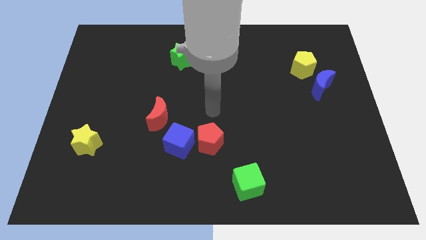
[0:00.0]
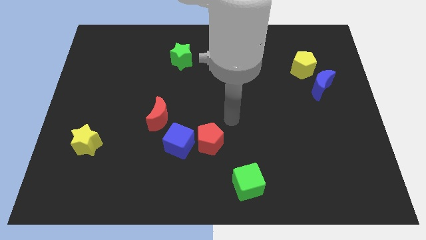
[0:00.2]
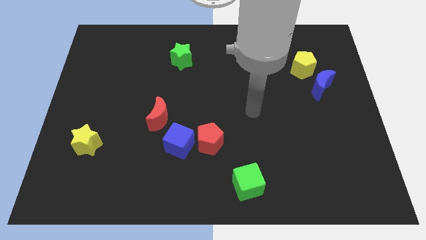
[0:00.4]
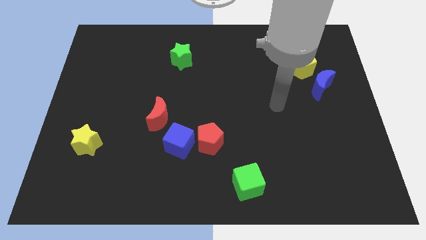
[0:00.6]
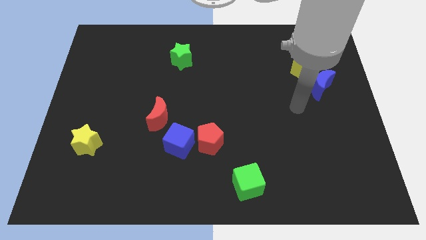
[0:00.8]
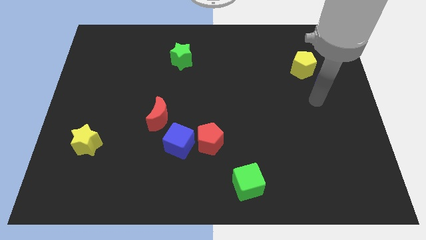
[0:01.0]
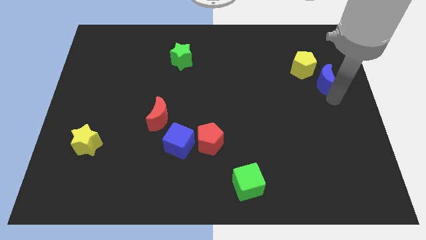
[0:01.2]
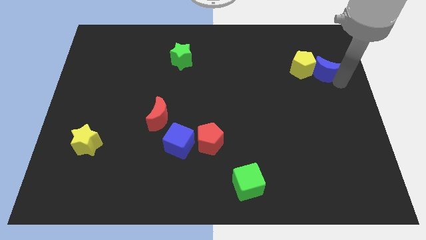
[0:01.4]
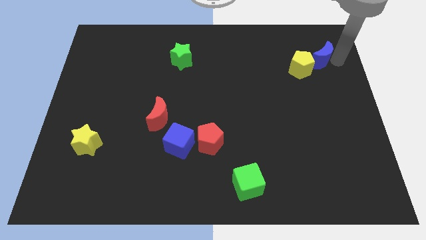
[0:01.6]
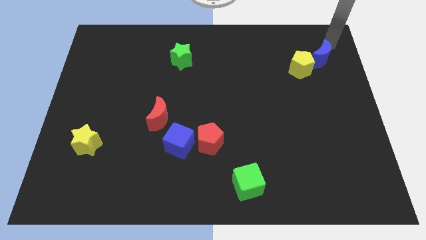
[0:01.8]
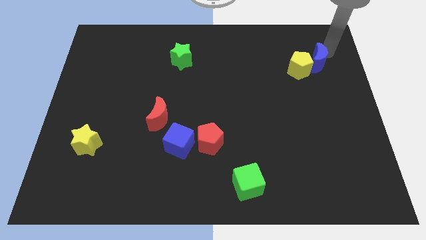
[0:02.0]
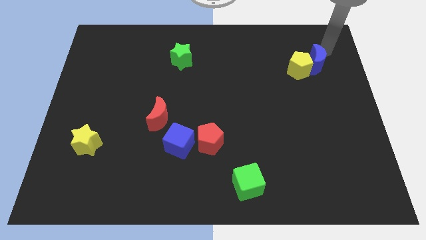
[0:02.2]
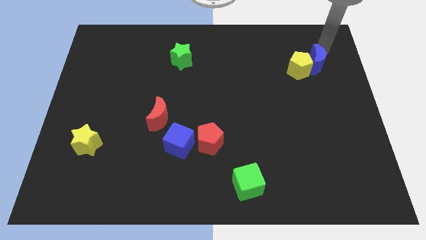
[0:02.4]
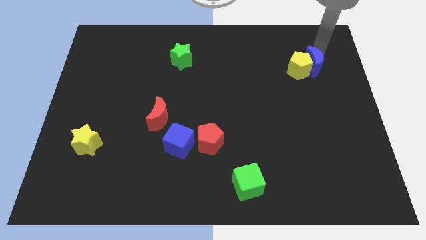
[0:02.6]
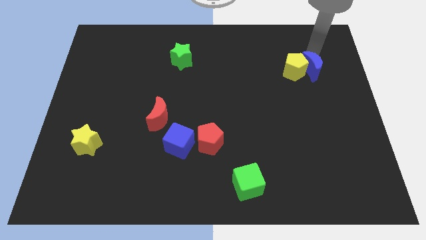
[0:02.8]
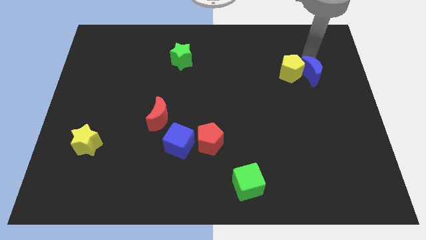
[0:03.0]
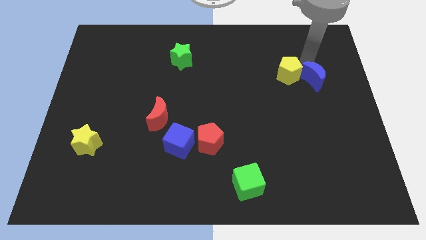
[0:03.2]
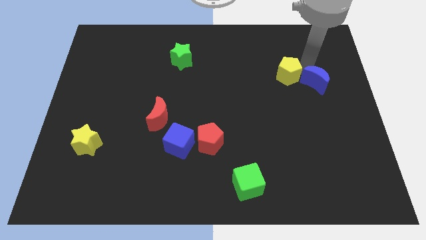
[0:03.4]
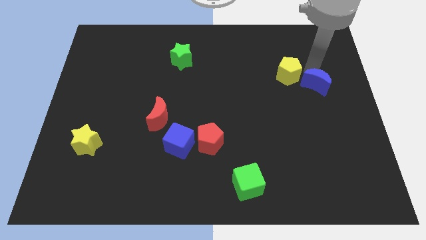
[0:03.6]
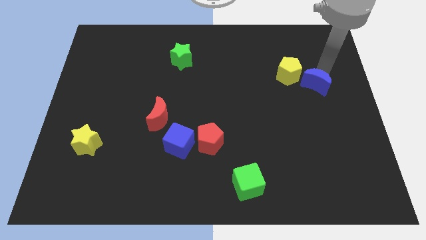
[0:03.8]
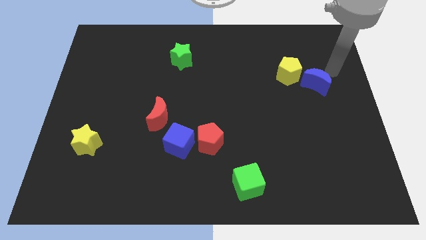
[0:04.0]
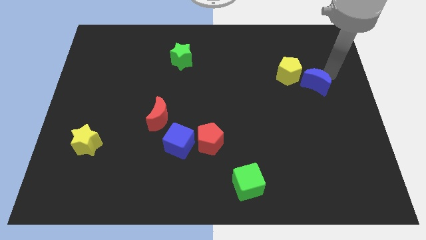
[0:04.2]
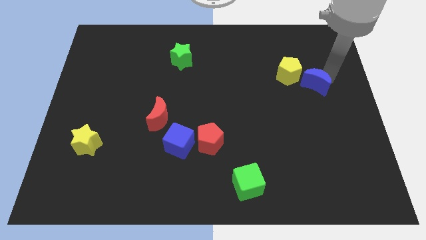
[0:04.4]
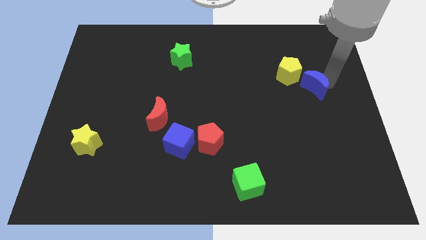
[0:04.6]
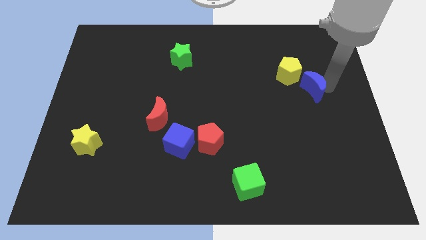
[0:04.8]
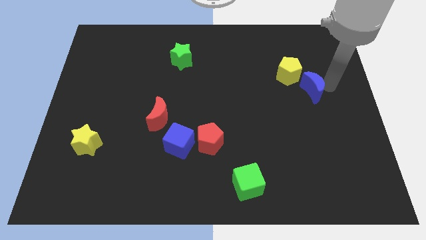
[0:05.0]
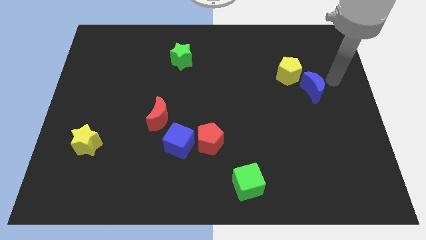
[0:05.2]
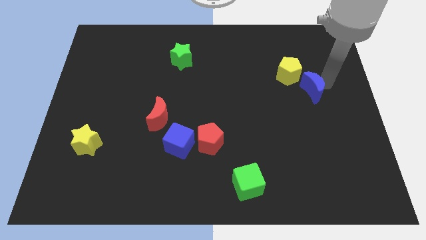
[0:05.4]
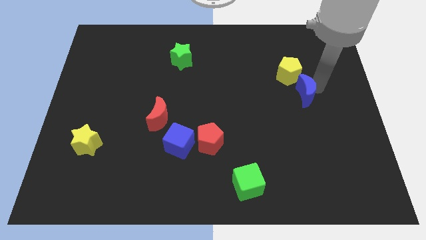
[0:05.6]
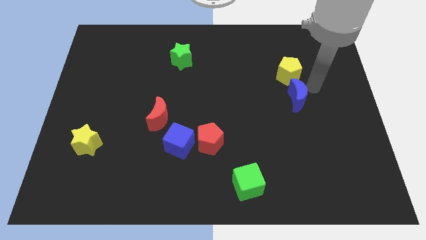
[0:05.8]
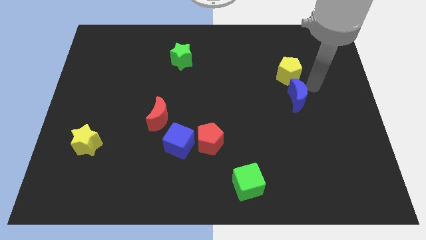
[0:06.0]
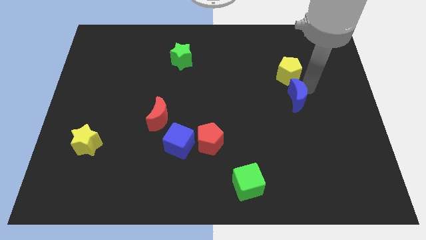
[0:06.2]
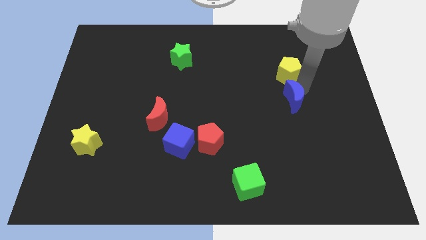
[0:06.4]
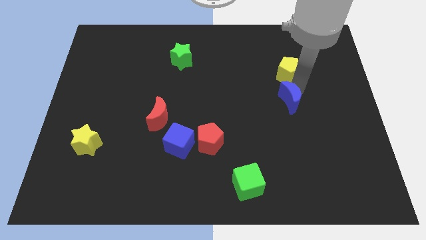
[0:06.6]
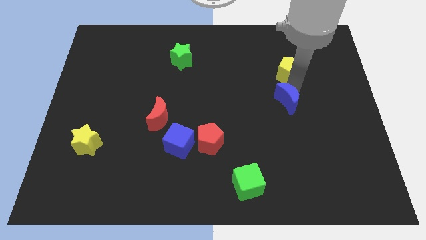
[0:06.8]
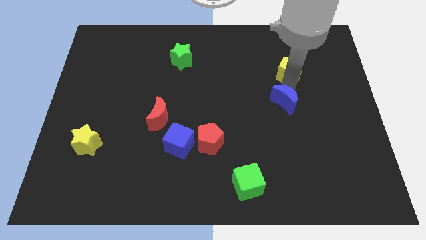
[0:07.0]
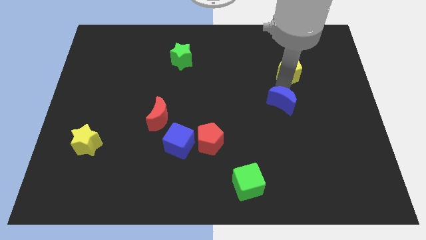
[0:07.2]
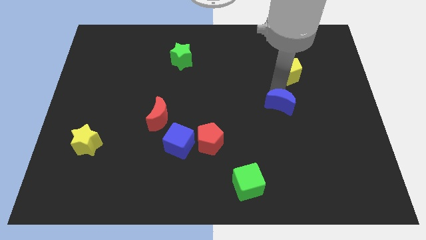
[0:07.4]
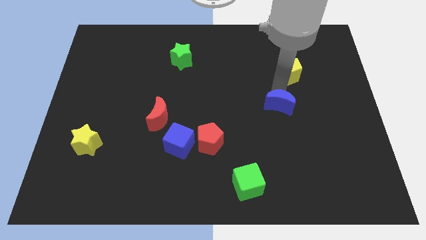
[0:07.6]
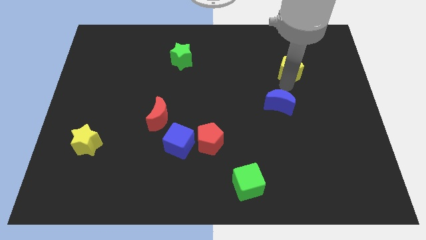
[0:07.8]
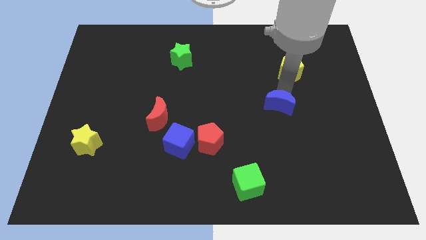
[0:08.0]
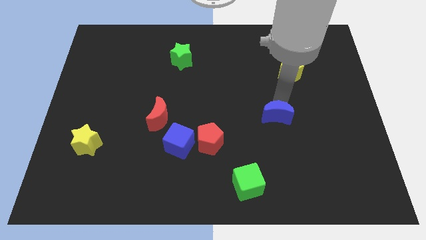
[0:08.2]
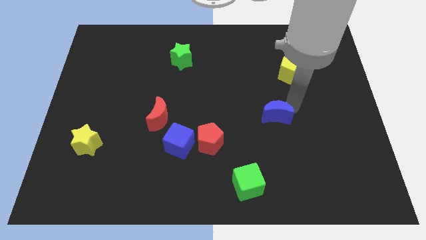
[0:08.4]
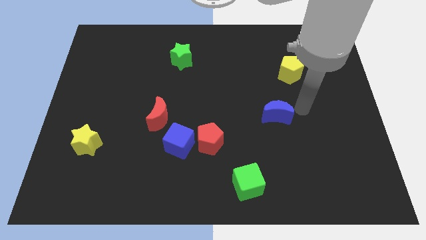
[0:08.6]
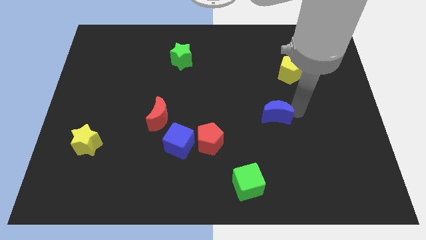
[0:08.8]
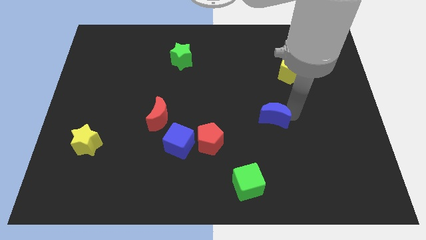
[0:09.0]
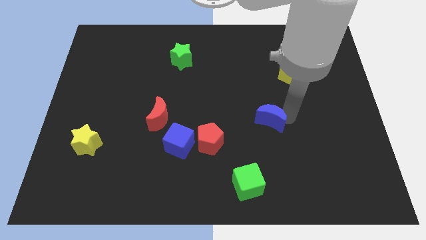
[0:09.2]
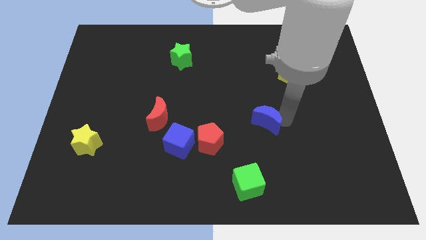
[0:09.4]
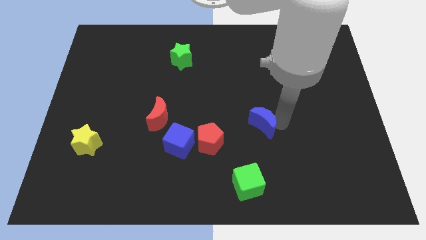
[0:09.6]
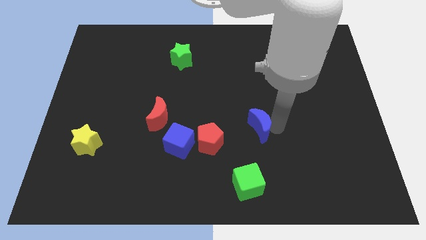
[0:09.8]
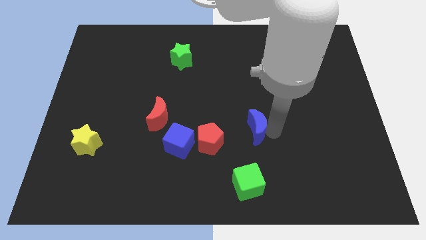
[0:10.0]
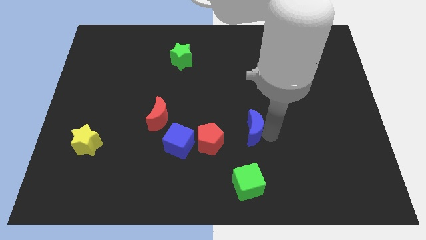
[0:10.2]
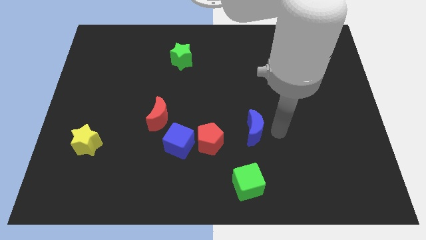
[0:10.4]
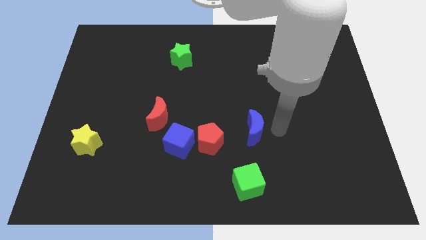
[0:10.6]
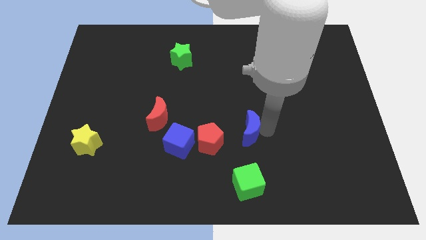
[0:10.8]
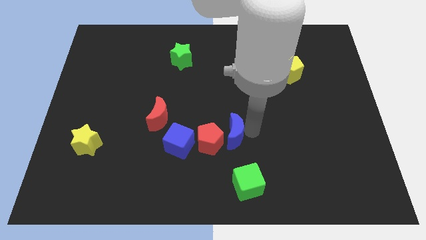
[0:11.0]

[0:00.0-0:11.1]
put the blue moon to the red pentagon

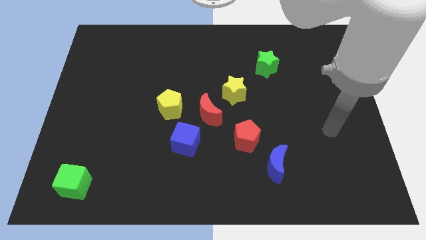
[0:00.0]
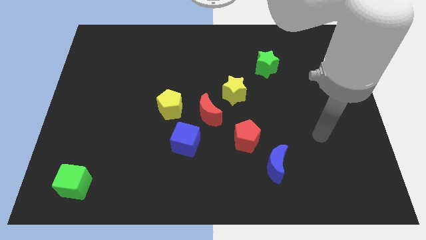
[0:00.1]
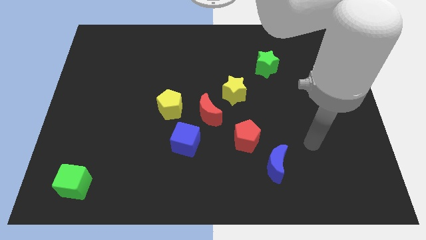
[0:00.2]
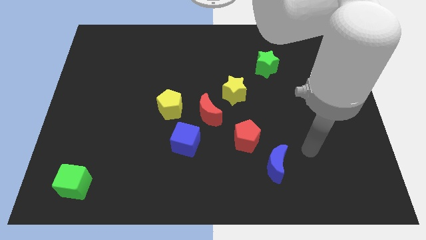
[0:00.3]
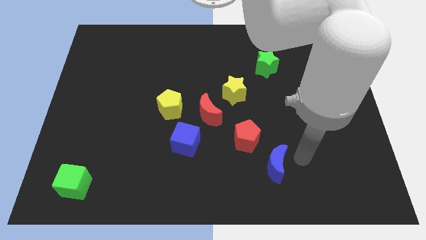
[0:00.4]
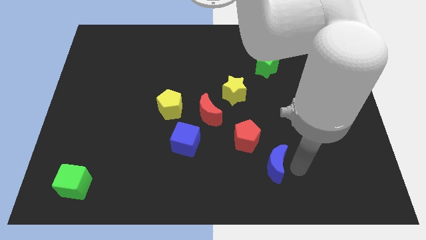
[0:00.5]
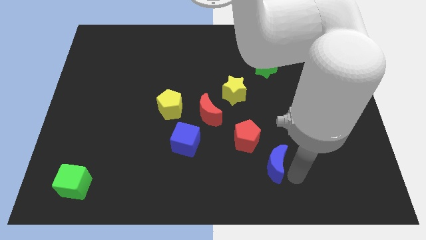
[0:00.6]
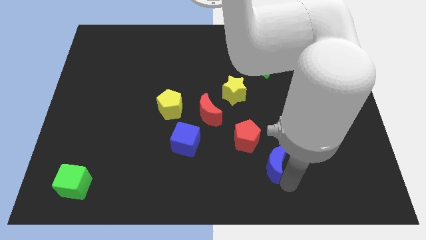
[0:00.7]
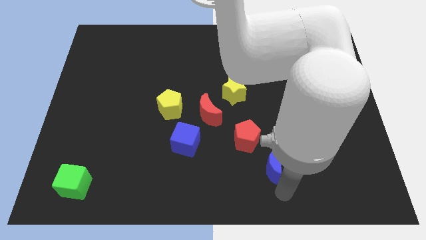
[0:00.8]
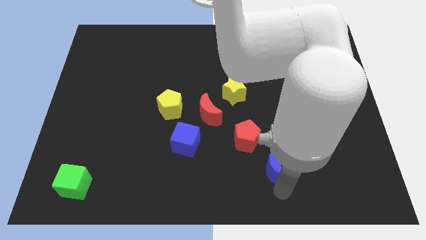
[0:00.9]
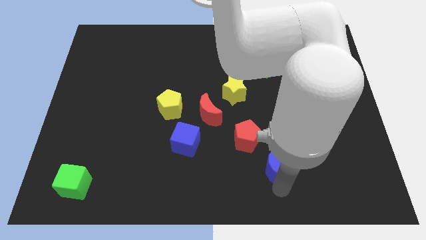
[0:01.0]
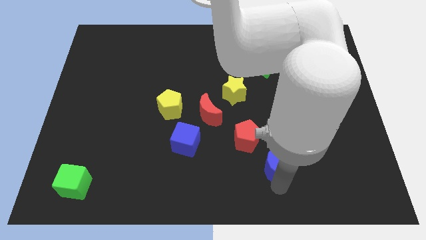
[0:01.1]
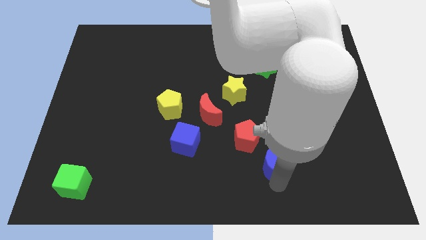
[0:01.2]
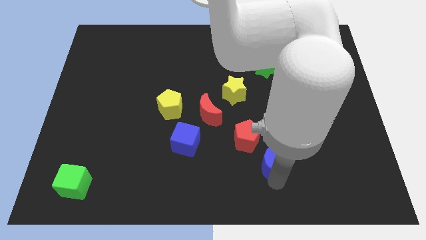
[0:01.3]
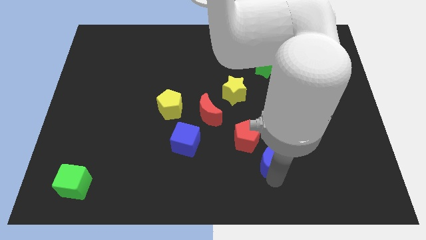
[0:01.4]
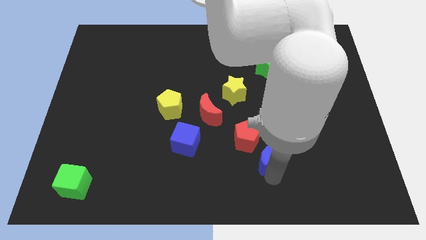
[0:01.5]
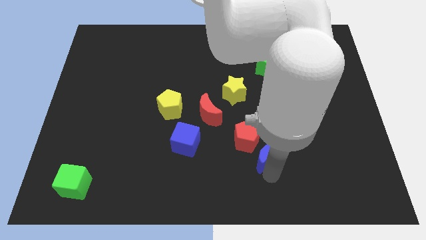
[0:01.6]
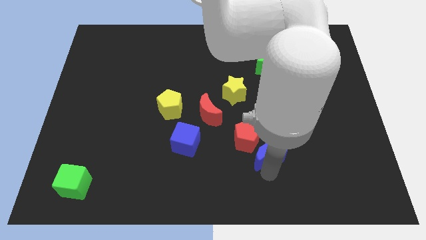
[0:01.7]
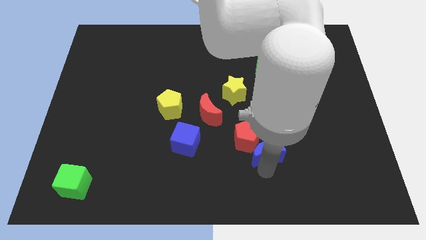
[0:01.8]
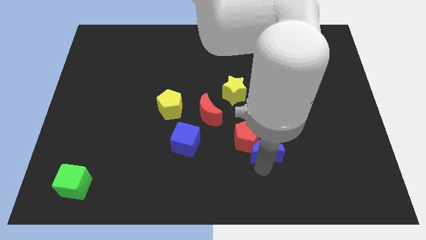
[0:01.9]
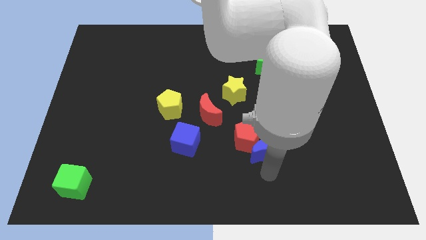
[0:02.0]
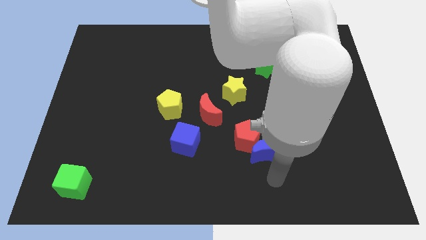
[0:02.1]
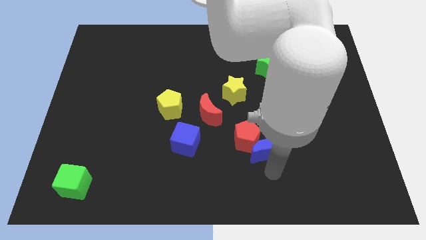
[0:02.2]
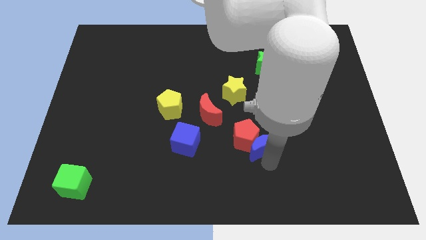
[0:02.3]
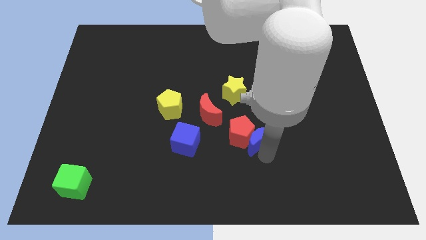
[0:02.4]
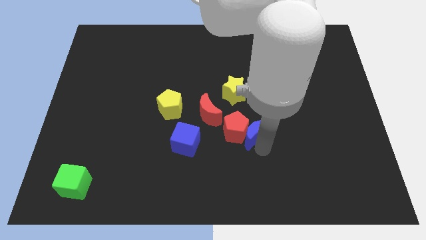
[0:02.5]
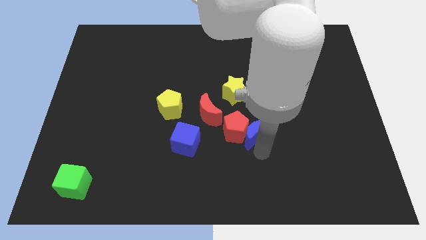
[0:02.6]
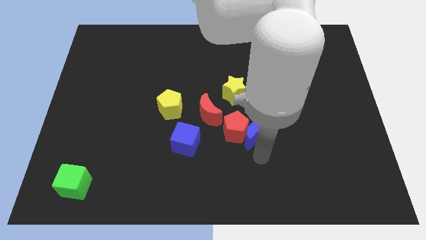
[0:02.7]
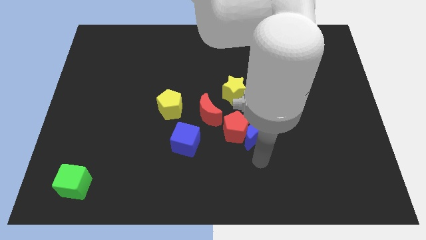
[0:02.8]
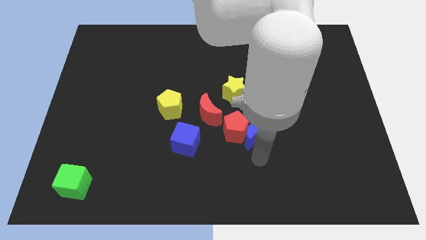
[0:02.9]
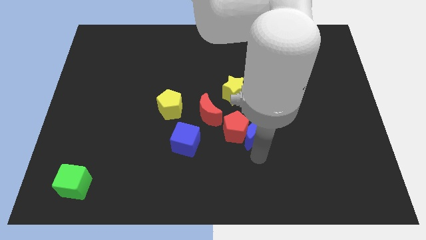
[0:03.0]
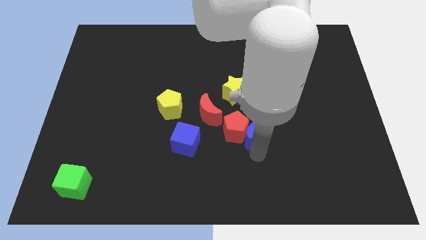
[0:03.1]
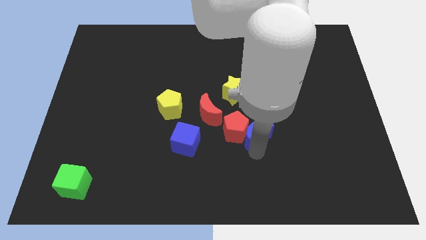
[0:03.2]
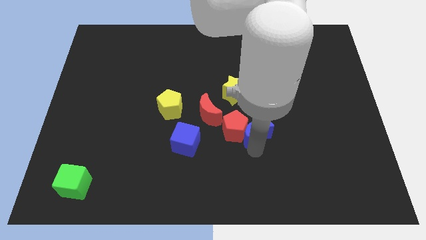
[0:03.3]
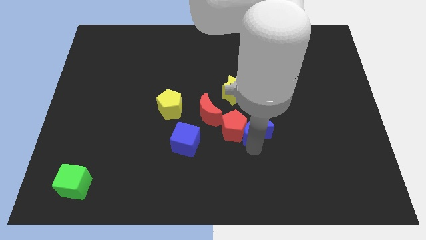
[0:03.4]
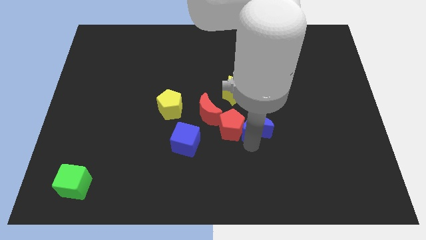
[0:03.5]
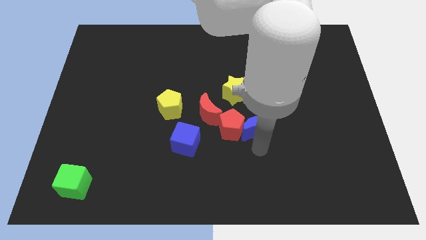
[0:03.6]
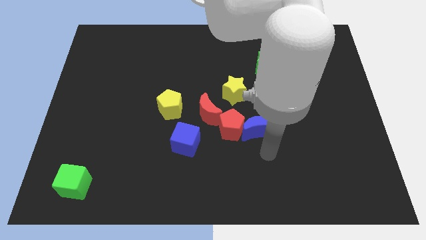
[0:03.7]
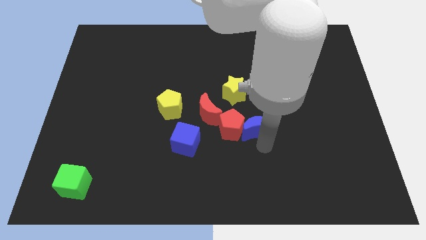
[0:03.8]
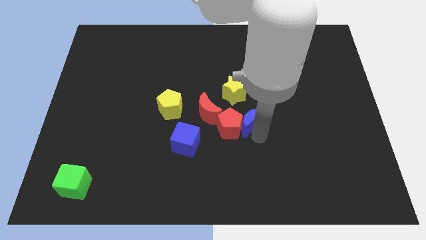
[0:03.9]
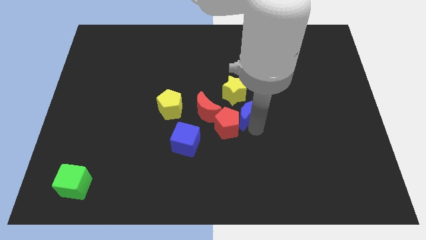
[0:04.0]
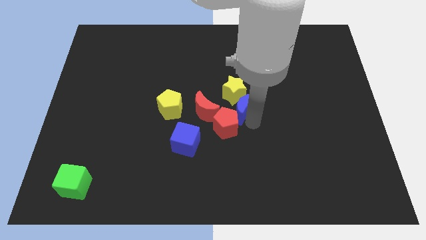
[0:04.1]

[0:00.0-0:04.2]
put the blue moon next to the yellow star
